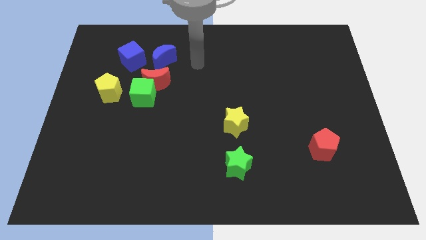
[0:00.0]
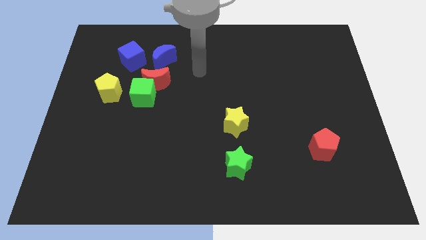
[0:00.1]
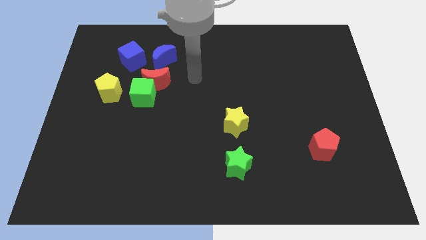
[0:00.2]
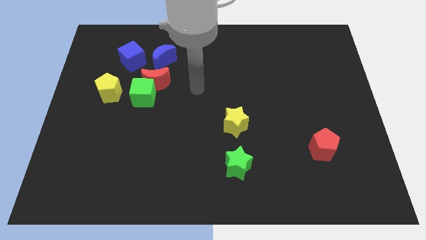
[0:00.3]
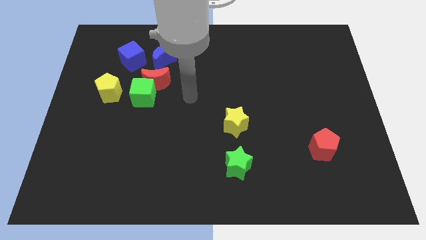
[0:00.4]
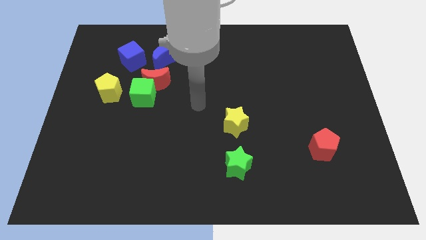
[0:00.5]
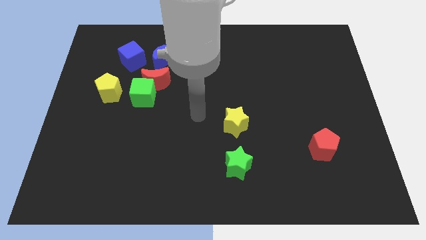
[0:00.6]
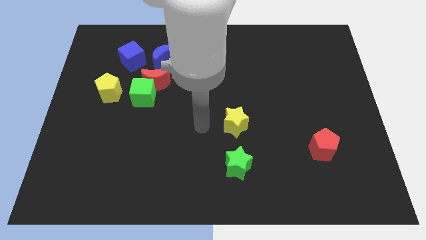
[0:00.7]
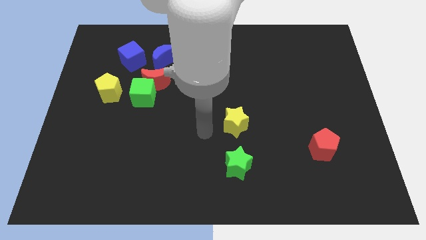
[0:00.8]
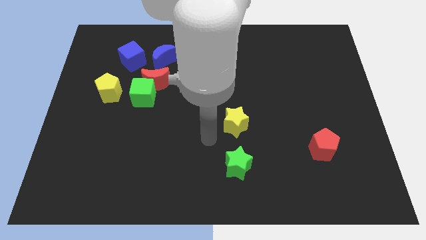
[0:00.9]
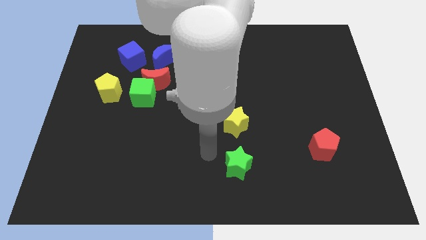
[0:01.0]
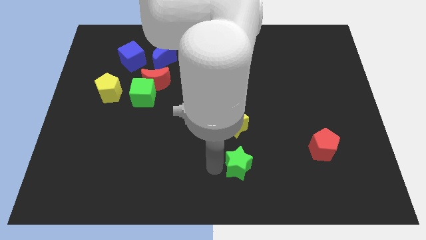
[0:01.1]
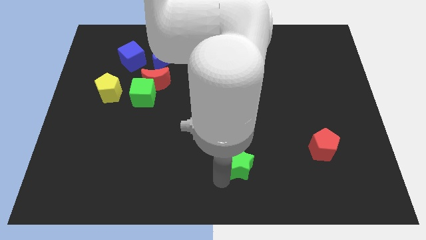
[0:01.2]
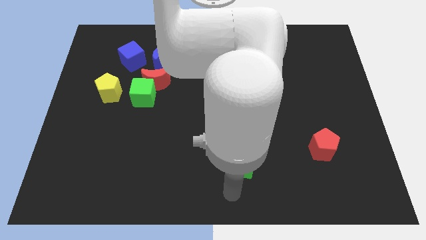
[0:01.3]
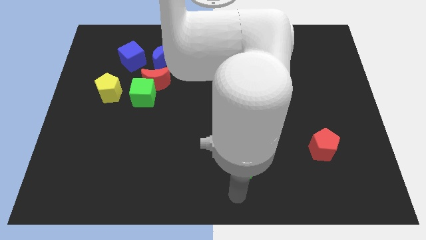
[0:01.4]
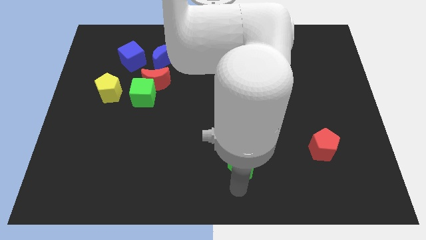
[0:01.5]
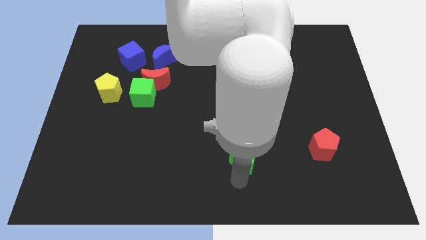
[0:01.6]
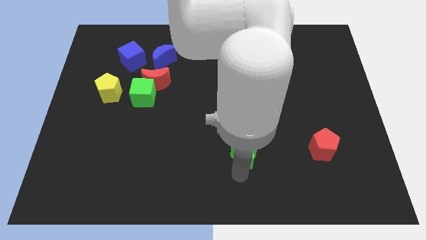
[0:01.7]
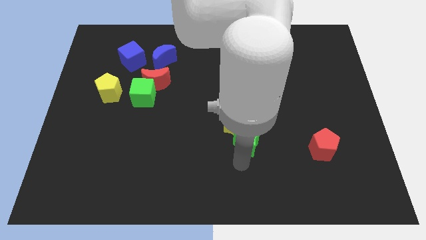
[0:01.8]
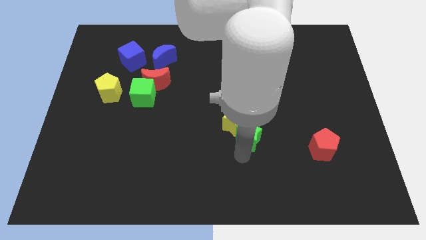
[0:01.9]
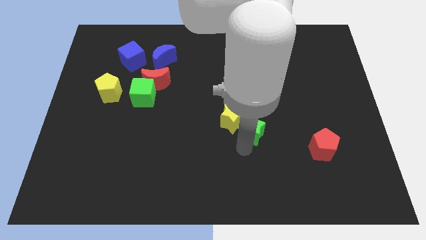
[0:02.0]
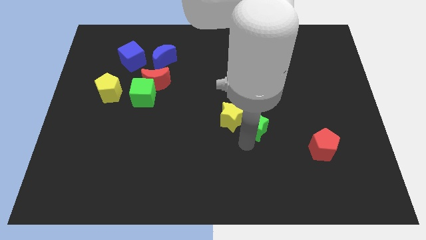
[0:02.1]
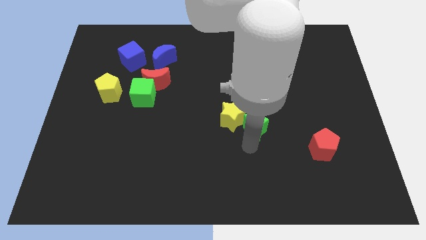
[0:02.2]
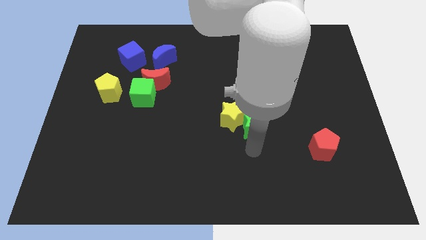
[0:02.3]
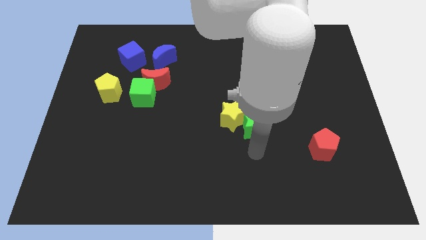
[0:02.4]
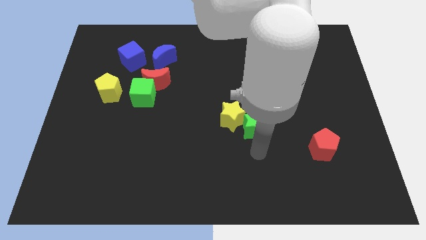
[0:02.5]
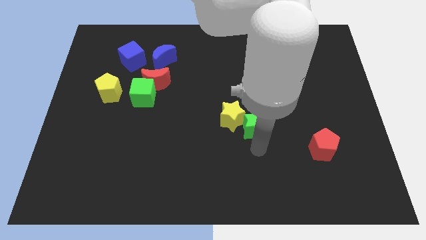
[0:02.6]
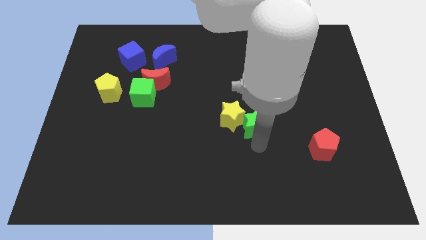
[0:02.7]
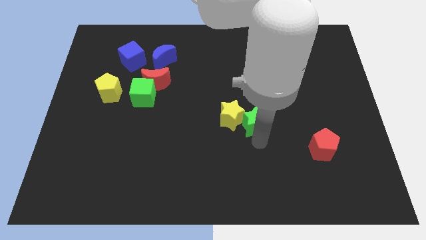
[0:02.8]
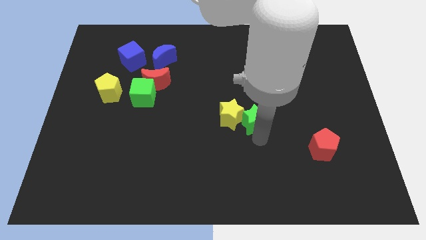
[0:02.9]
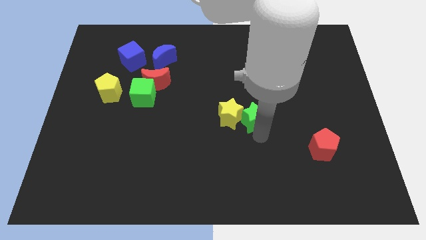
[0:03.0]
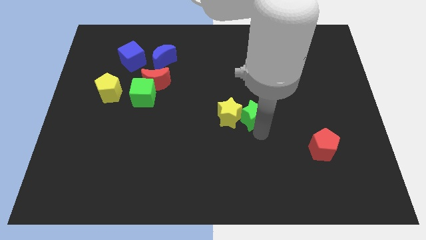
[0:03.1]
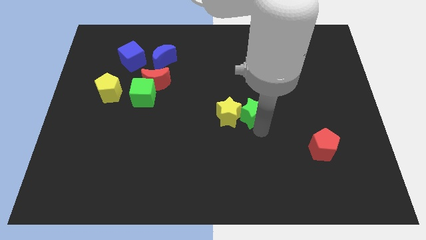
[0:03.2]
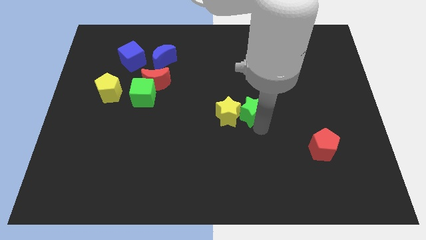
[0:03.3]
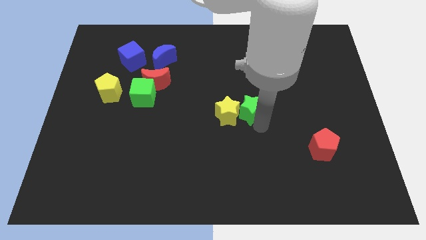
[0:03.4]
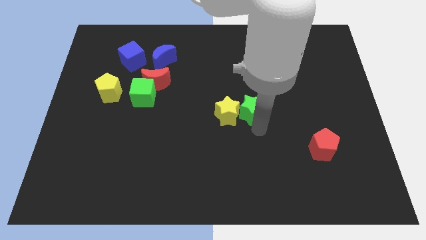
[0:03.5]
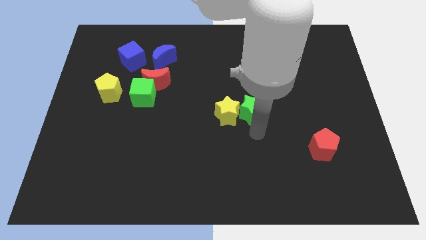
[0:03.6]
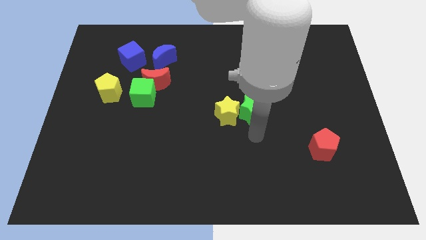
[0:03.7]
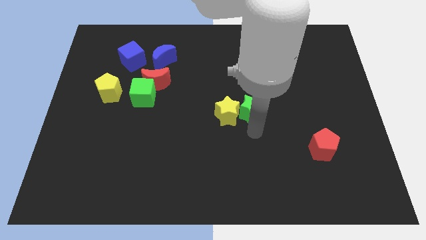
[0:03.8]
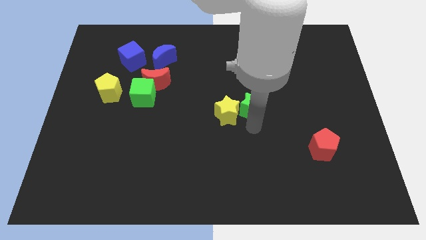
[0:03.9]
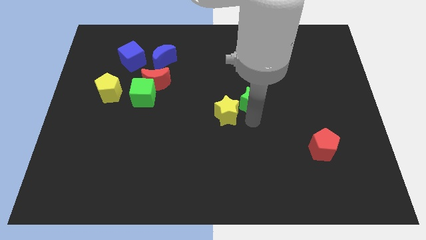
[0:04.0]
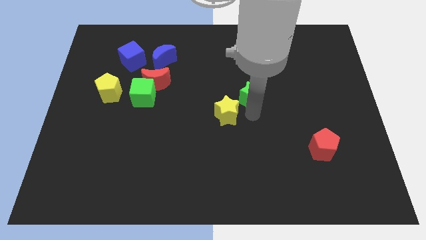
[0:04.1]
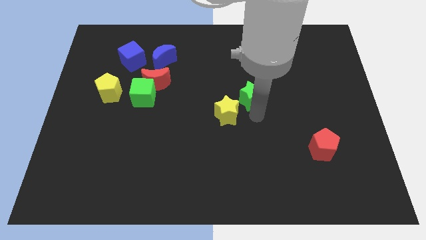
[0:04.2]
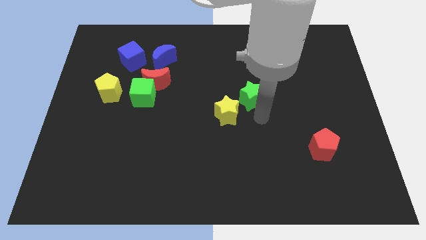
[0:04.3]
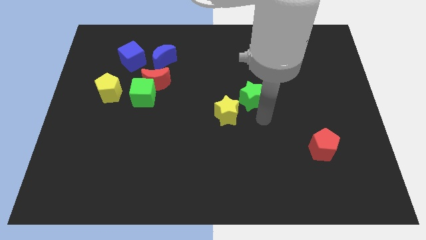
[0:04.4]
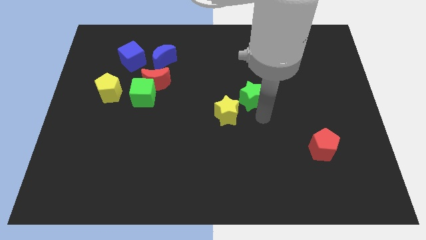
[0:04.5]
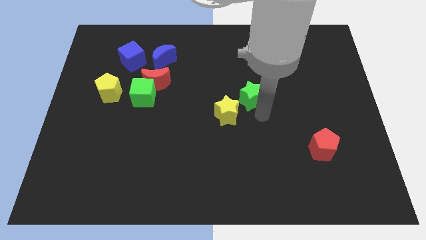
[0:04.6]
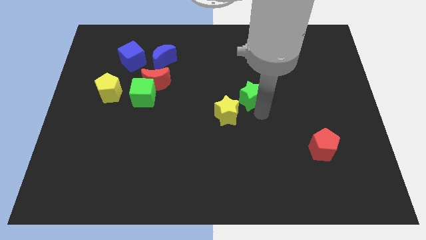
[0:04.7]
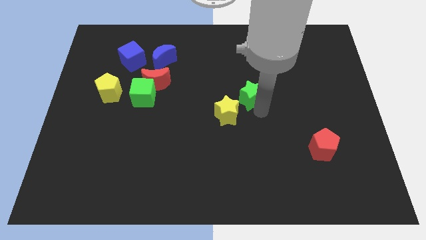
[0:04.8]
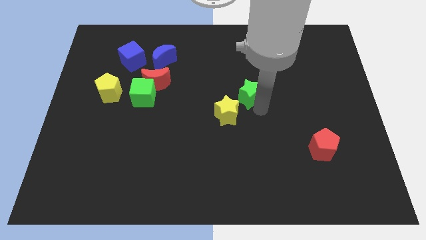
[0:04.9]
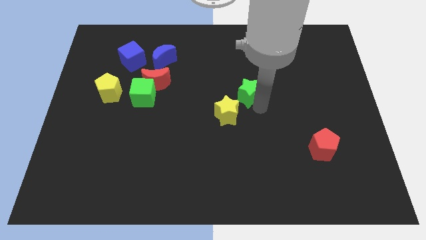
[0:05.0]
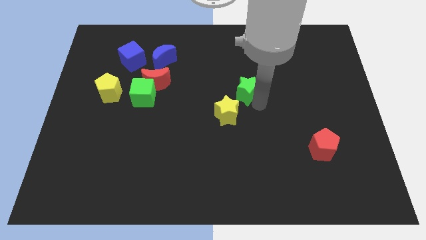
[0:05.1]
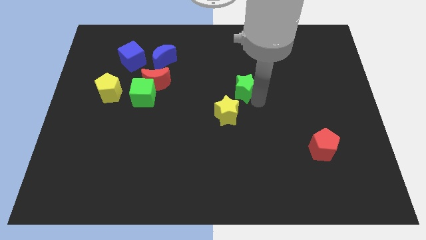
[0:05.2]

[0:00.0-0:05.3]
push the green star upwards

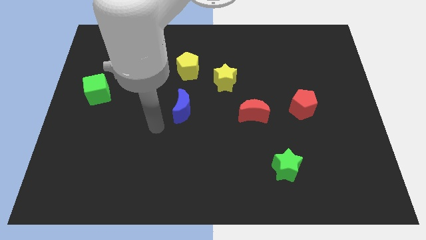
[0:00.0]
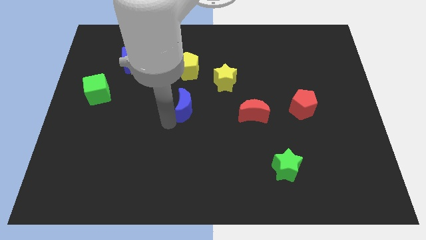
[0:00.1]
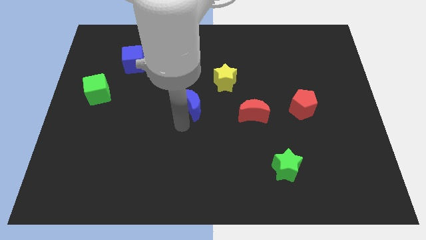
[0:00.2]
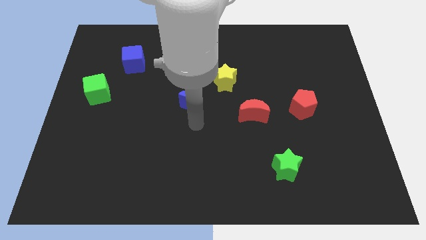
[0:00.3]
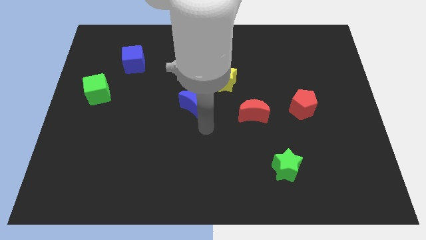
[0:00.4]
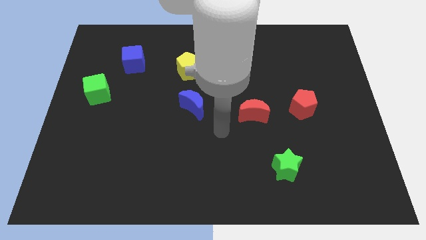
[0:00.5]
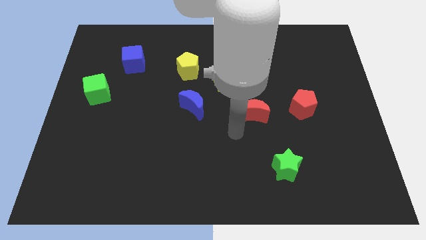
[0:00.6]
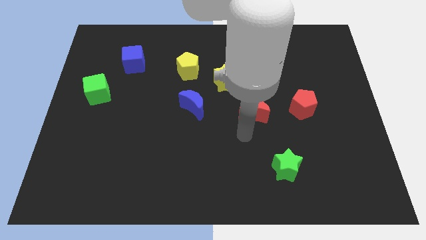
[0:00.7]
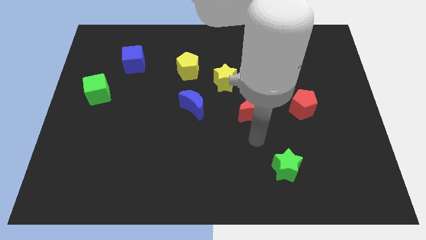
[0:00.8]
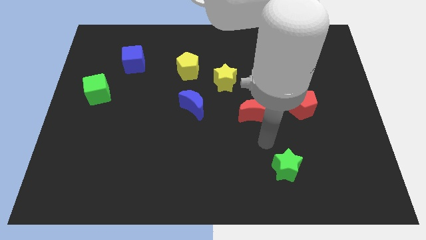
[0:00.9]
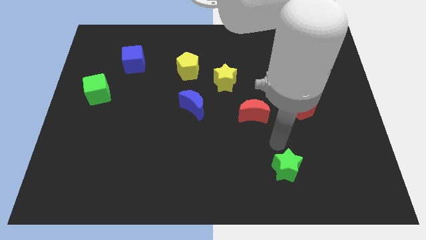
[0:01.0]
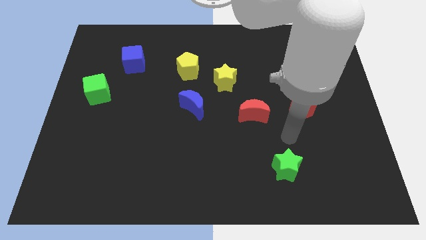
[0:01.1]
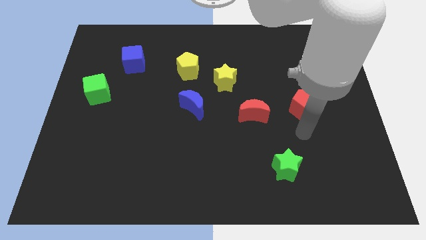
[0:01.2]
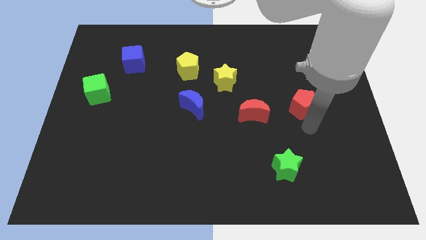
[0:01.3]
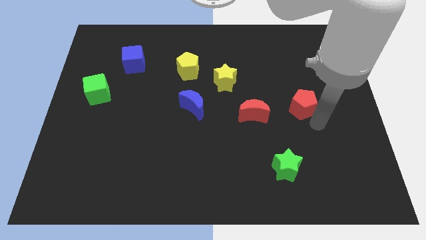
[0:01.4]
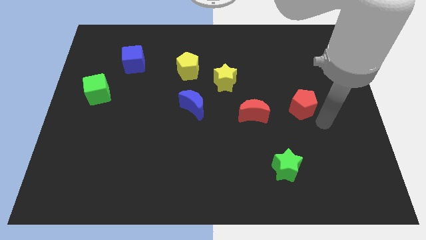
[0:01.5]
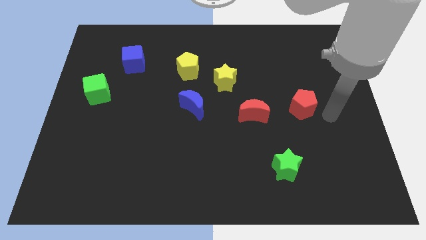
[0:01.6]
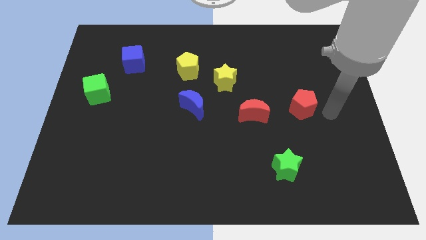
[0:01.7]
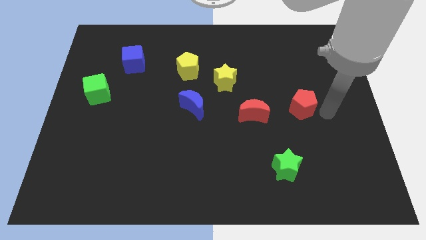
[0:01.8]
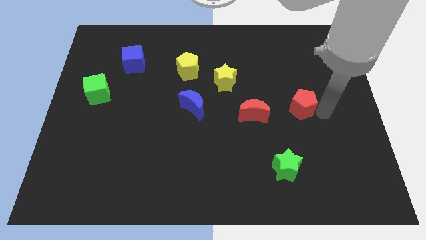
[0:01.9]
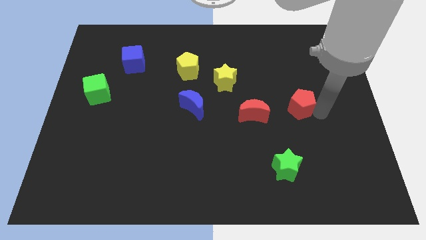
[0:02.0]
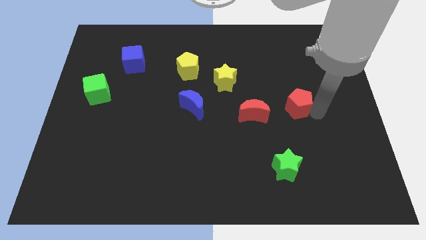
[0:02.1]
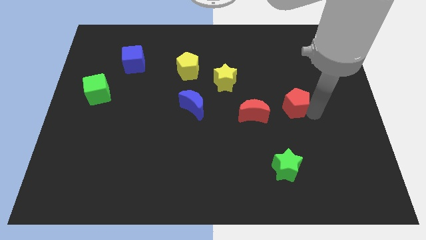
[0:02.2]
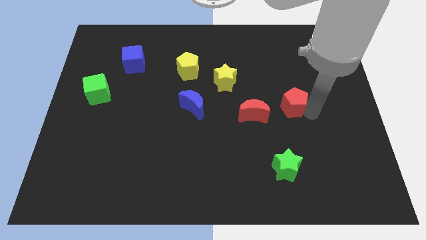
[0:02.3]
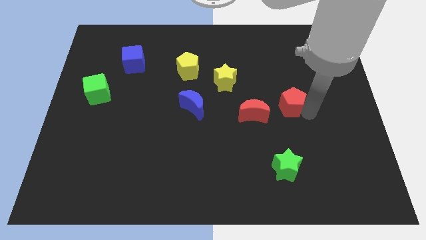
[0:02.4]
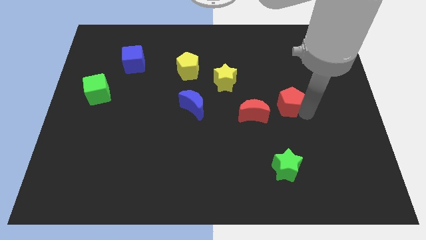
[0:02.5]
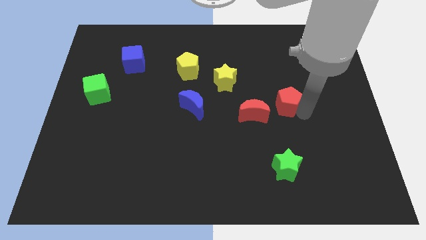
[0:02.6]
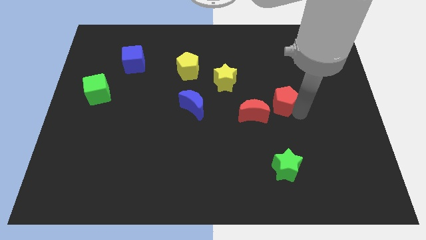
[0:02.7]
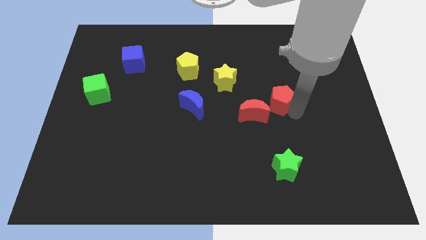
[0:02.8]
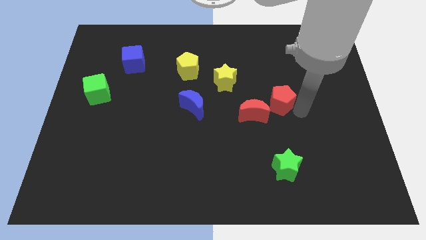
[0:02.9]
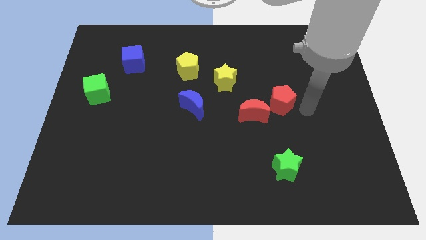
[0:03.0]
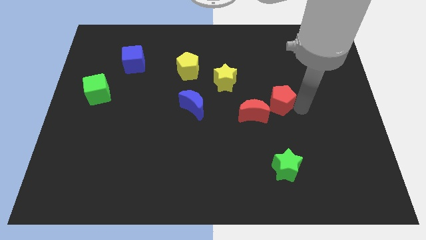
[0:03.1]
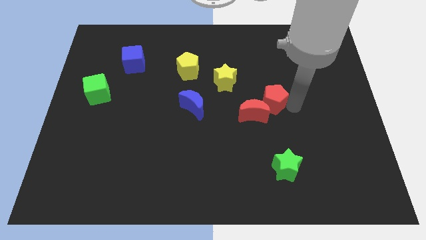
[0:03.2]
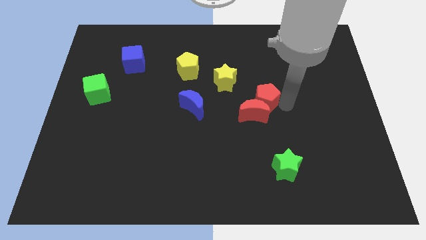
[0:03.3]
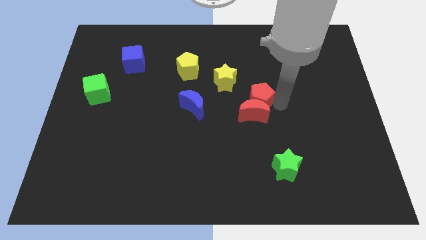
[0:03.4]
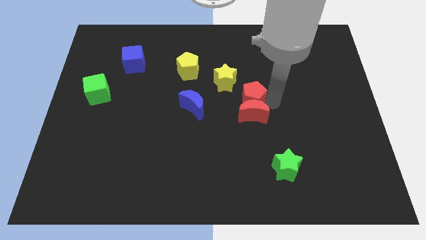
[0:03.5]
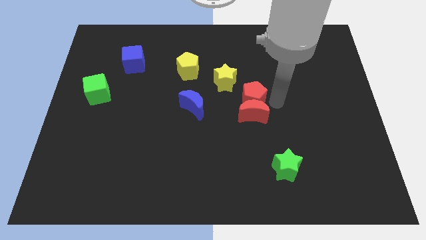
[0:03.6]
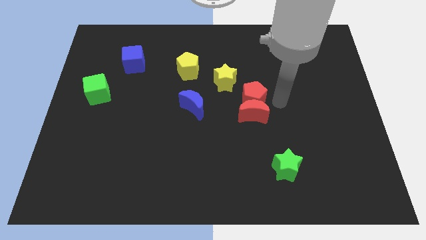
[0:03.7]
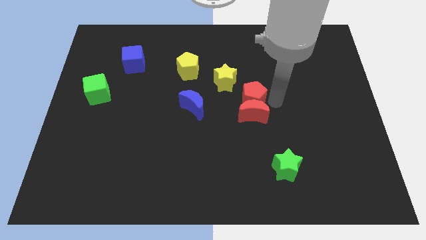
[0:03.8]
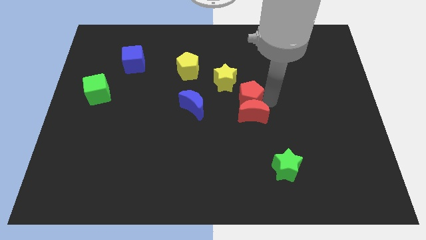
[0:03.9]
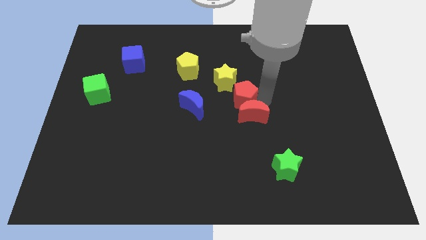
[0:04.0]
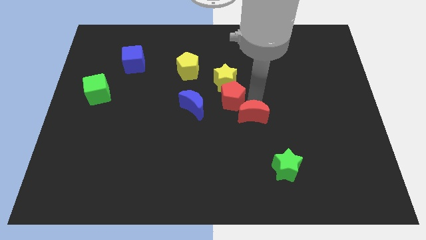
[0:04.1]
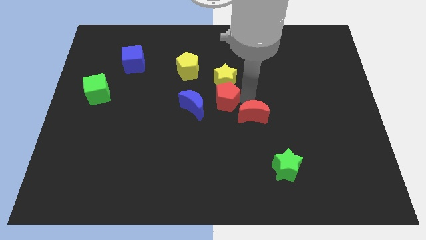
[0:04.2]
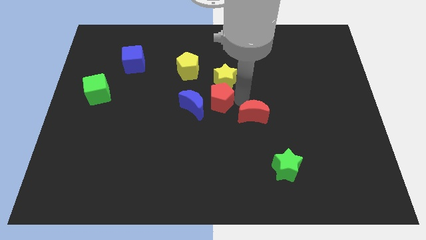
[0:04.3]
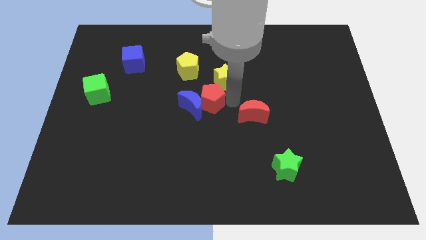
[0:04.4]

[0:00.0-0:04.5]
push the red pentagon to the left
